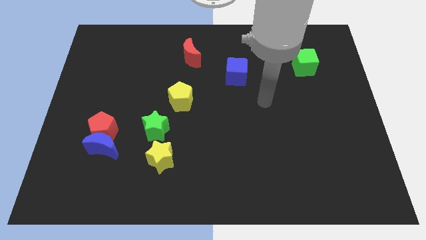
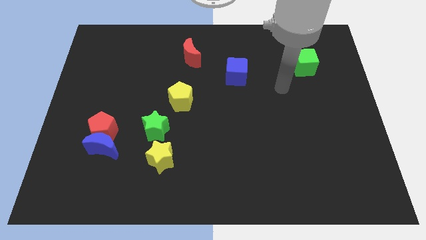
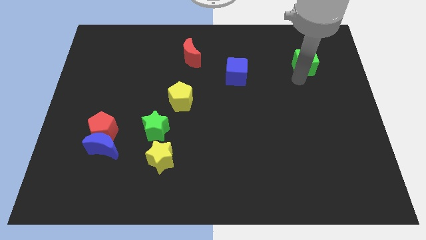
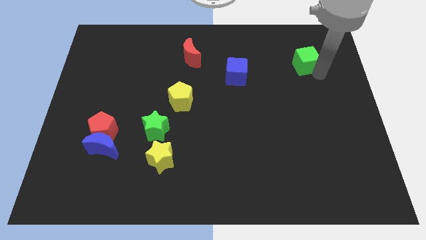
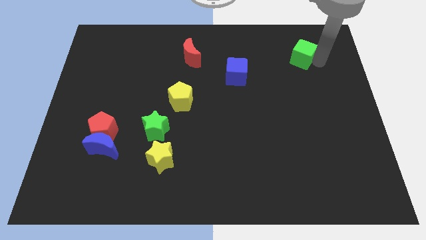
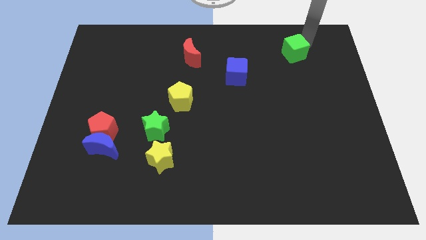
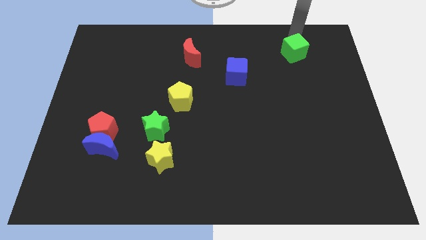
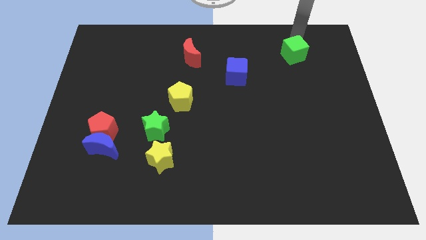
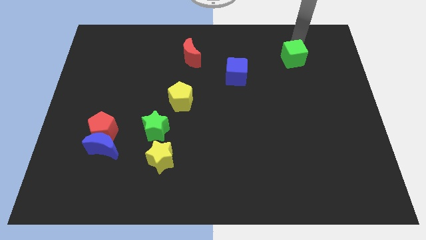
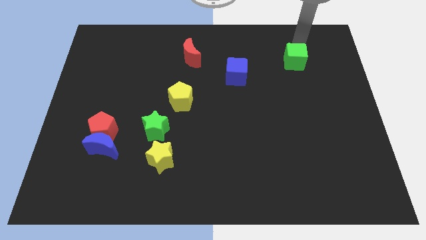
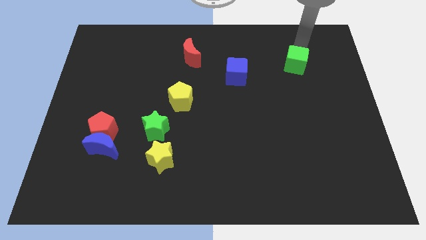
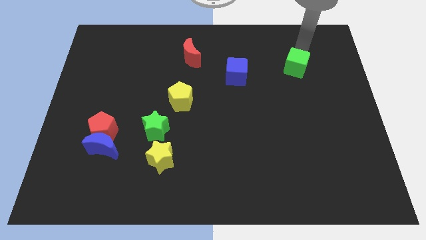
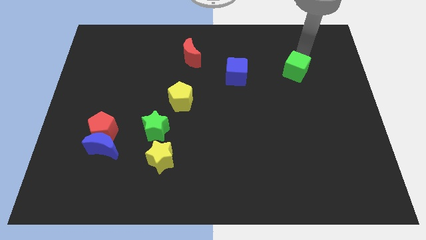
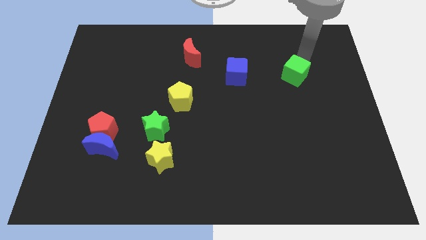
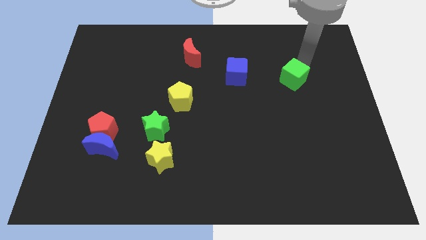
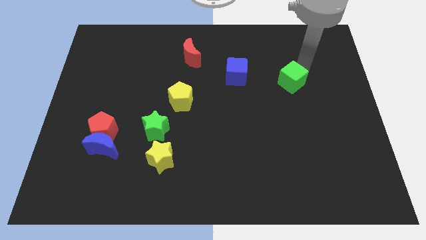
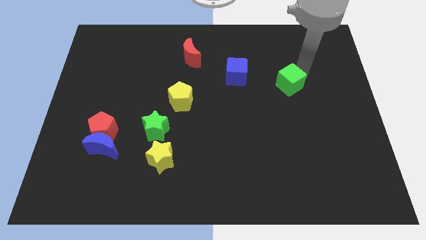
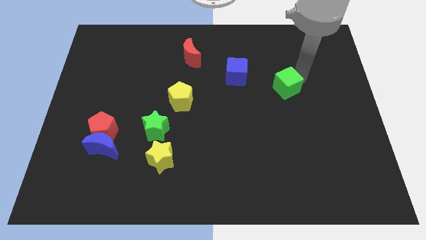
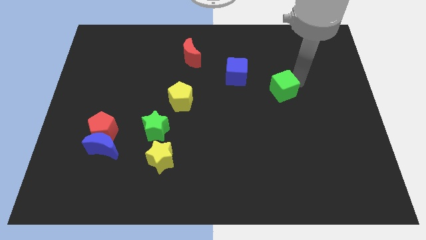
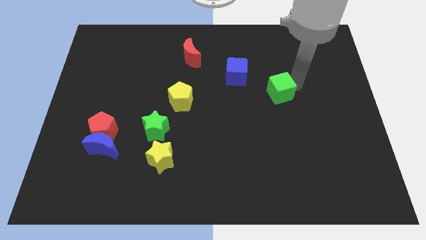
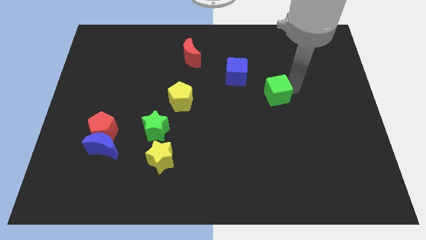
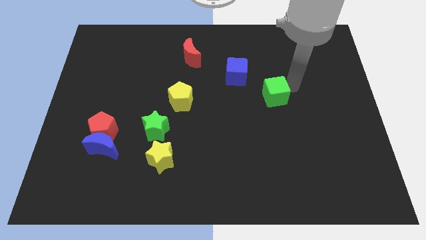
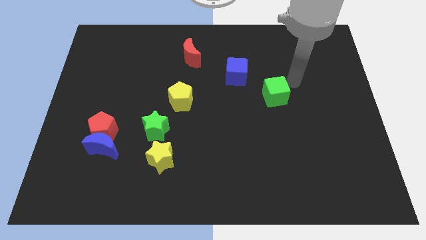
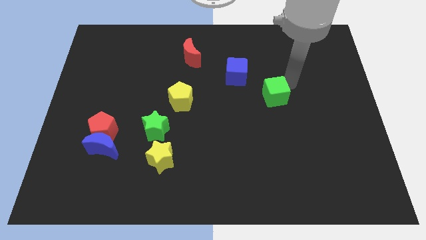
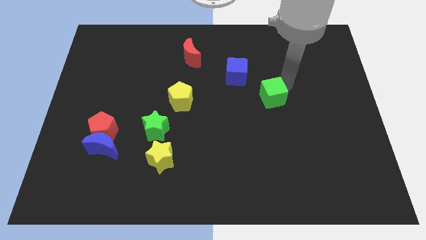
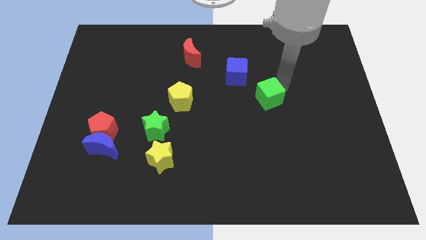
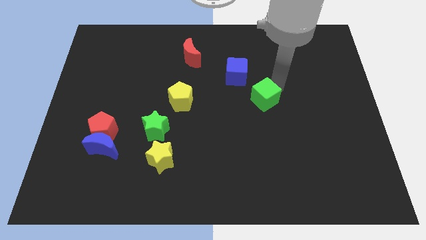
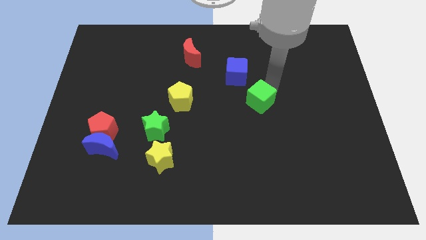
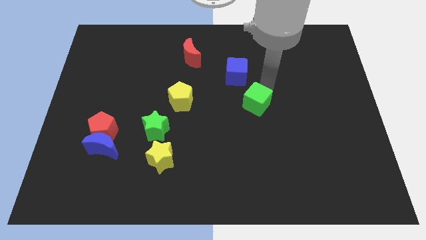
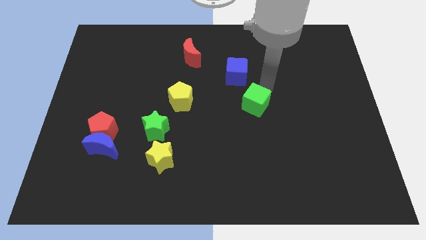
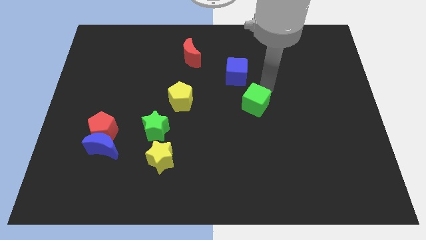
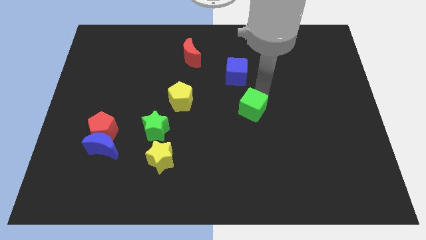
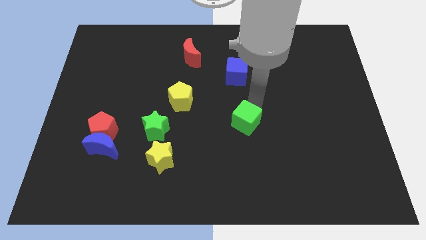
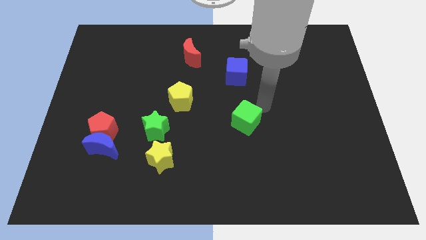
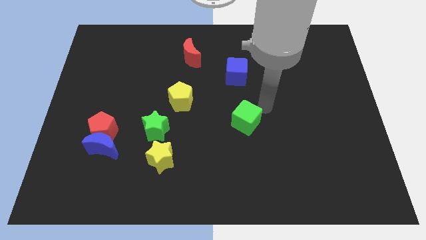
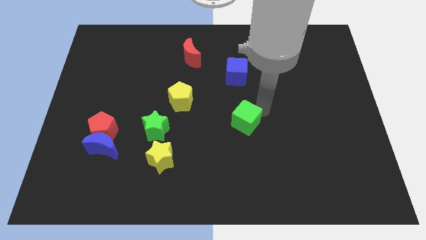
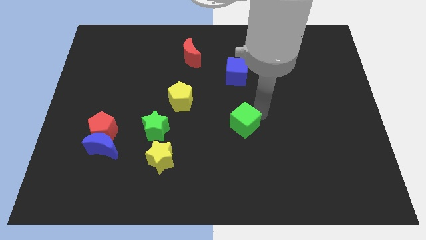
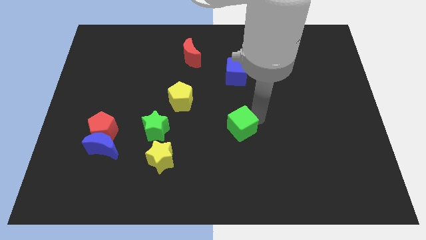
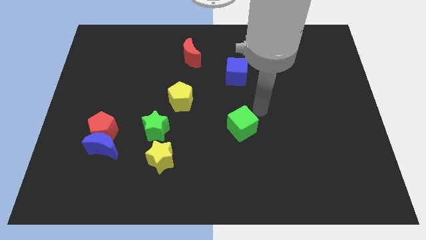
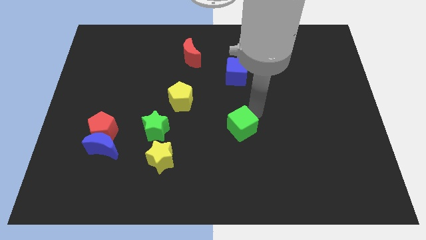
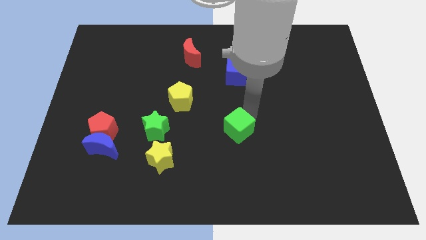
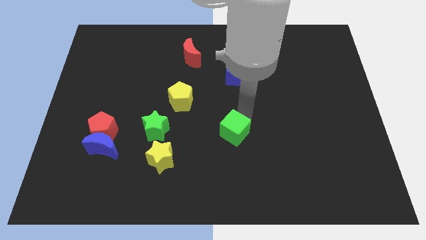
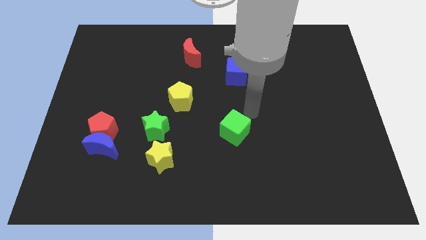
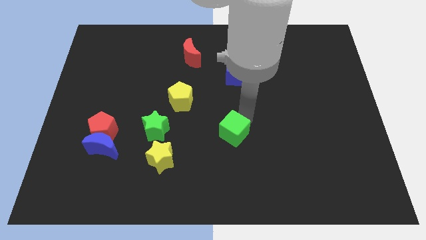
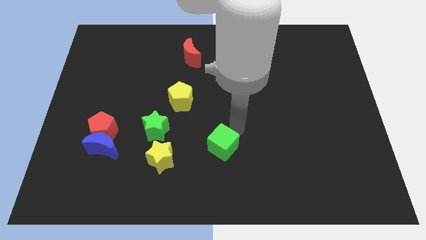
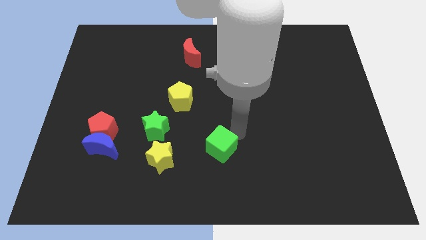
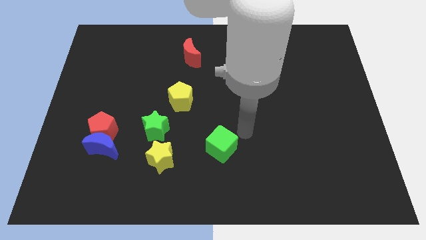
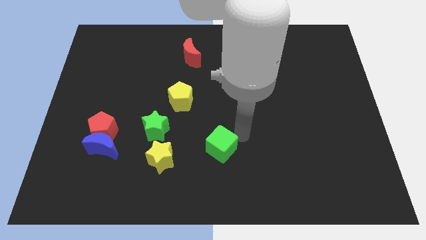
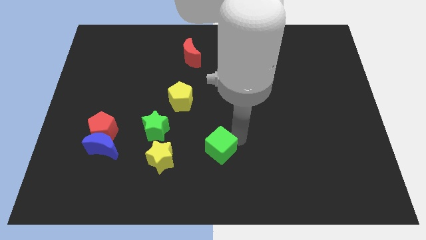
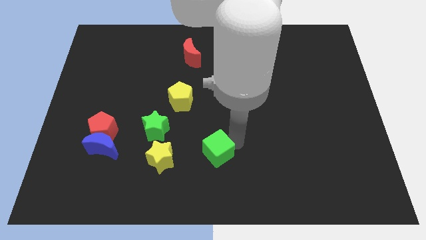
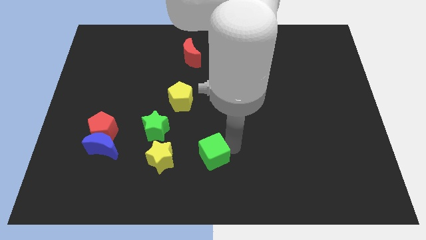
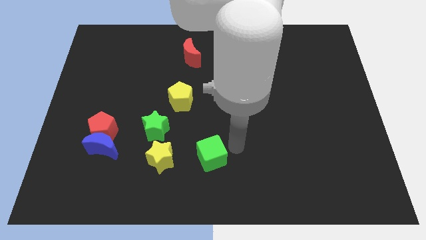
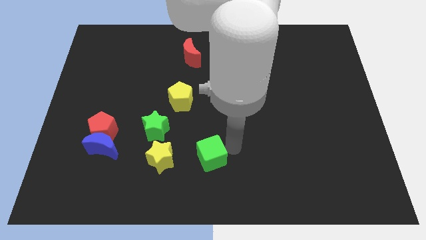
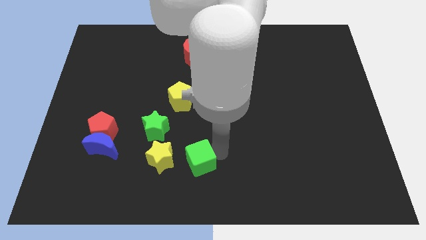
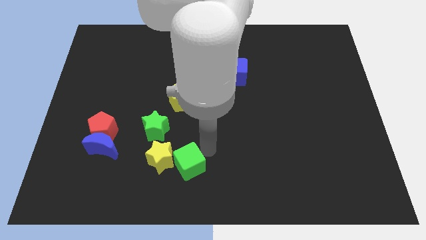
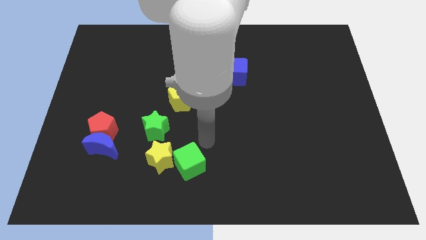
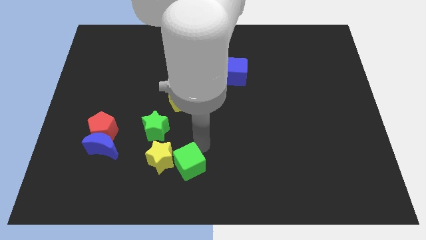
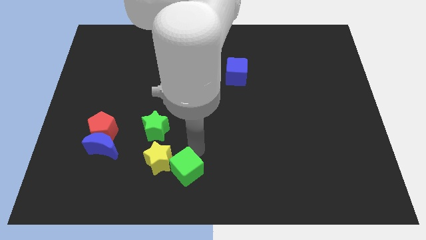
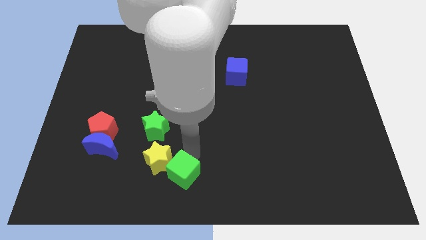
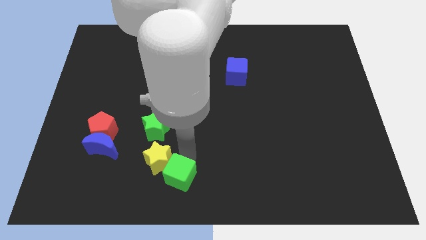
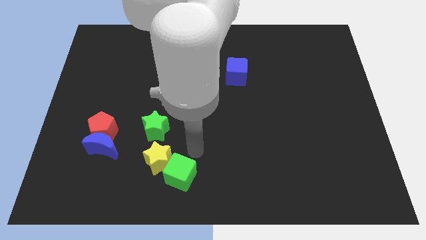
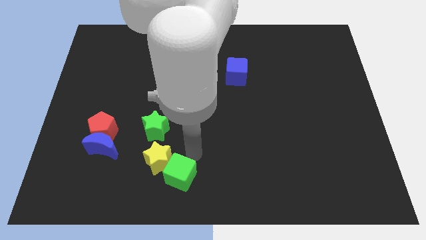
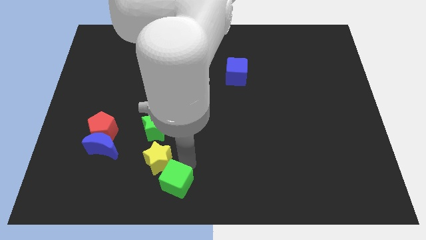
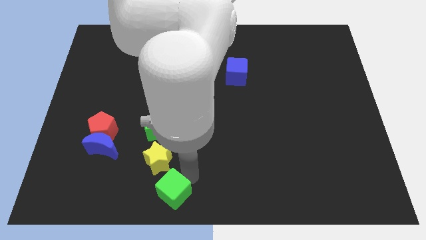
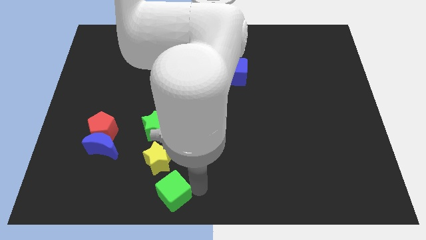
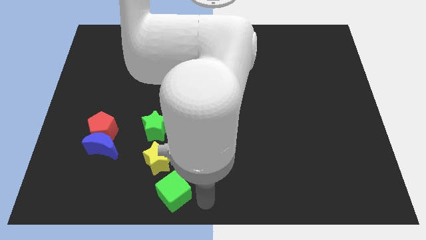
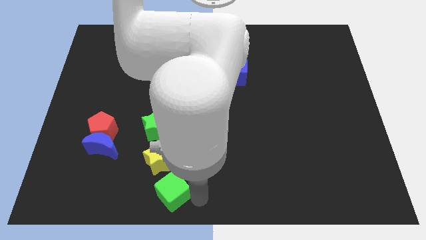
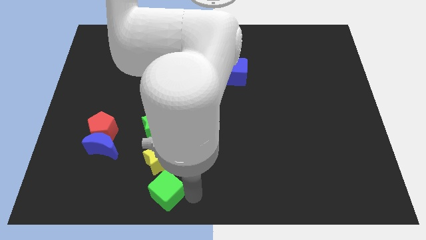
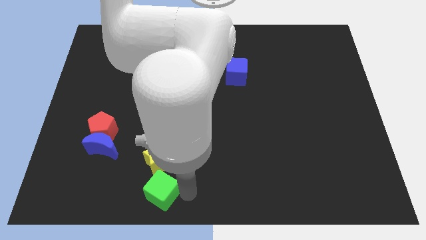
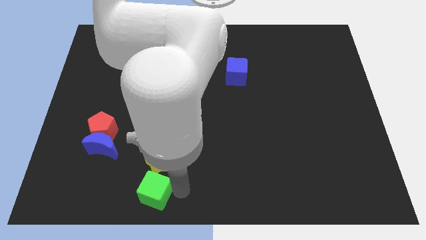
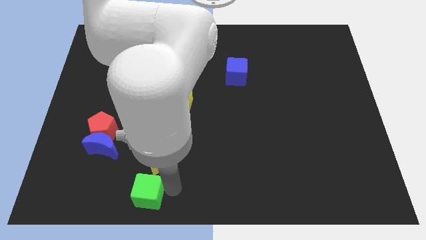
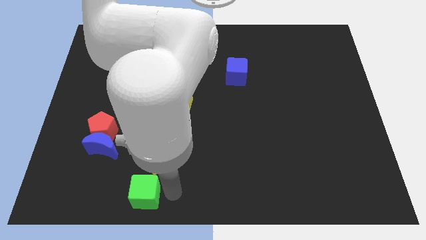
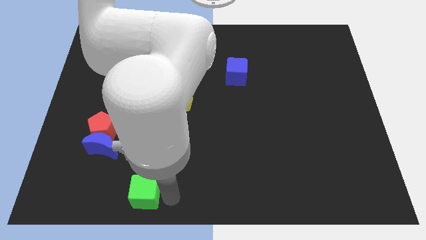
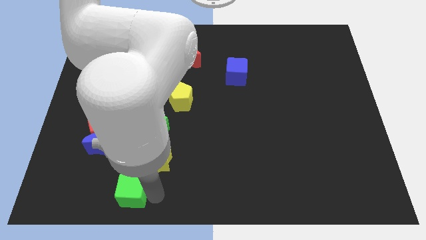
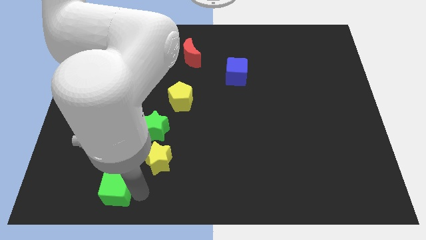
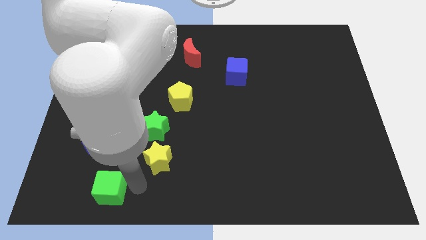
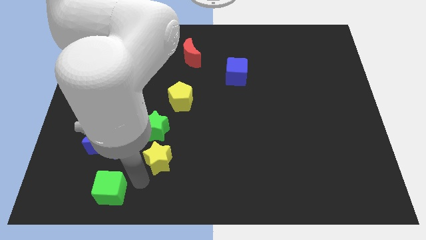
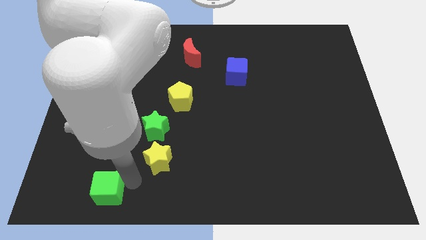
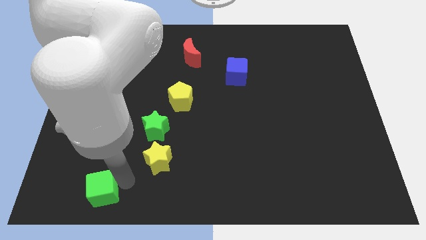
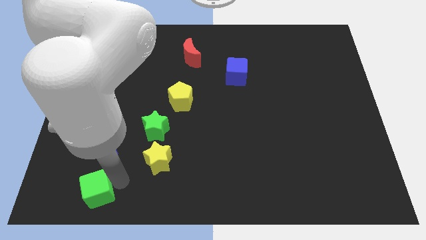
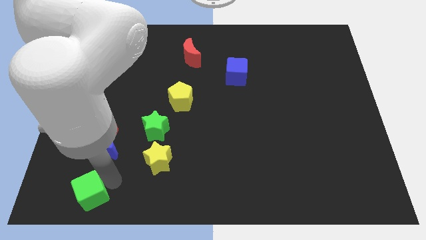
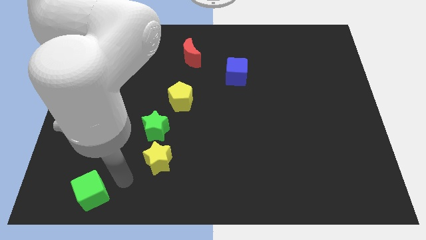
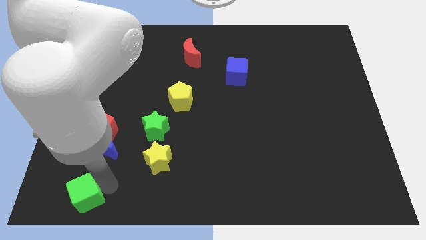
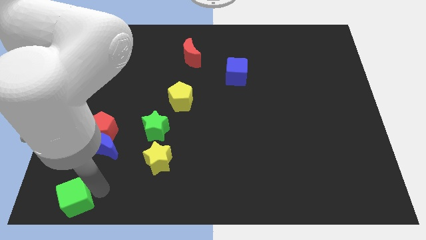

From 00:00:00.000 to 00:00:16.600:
push the green cube to the bottom left
